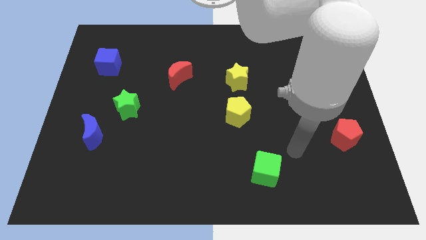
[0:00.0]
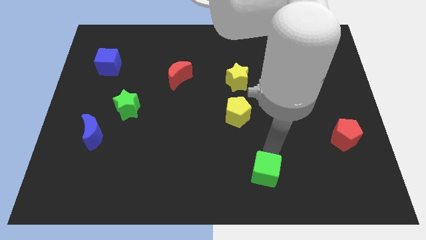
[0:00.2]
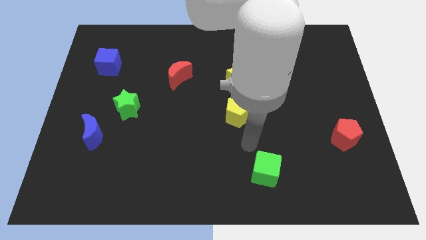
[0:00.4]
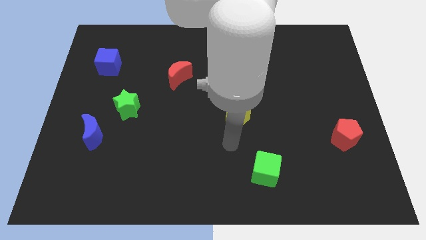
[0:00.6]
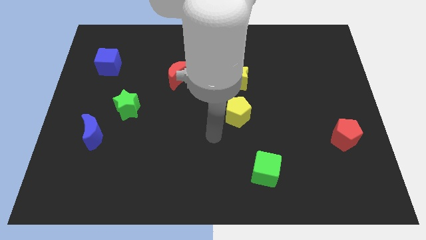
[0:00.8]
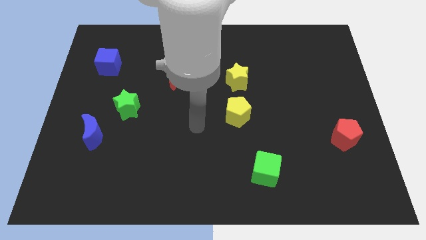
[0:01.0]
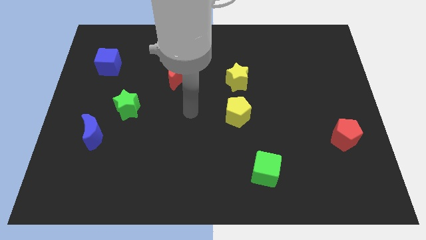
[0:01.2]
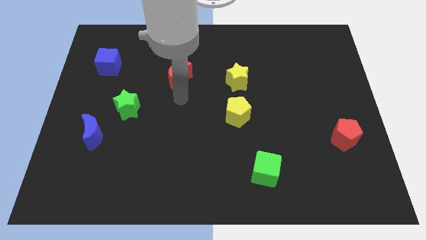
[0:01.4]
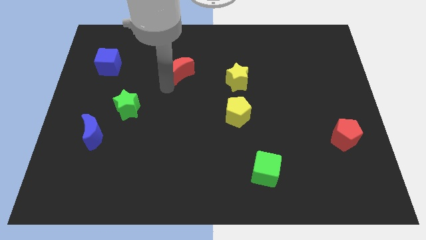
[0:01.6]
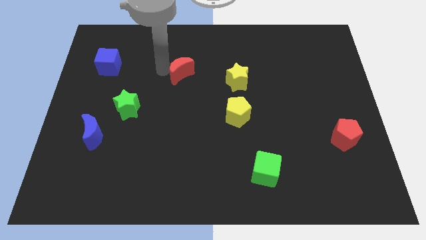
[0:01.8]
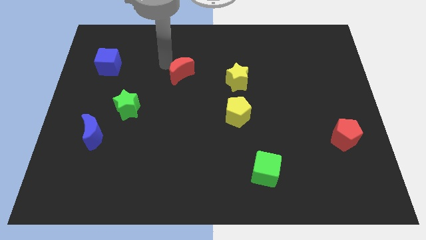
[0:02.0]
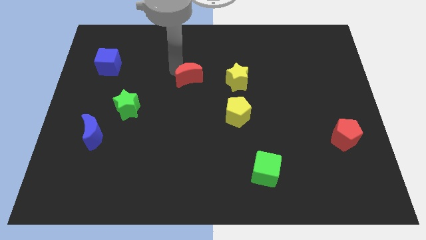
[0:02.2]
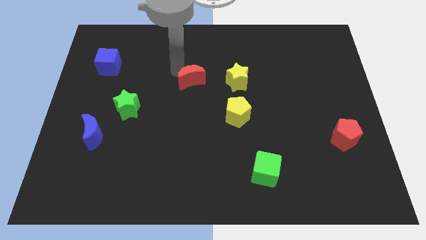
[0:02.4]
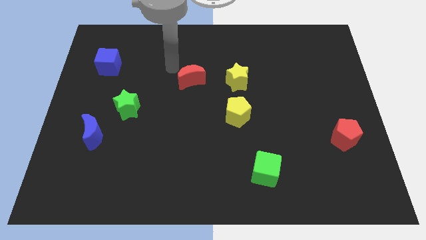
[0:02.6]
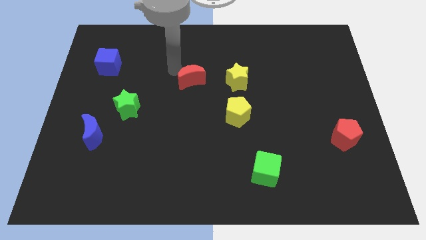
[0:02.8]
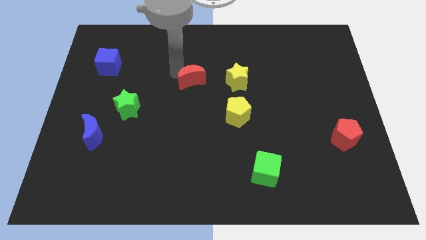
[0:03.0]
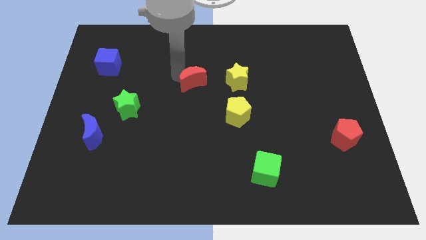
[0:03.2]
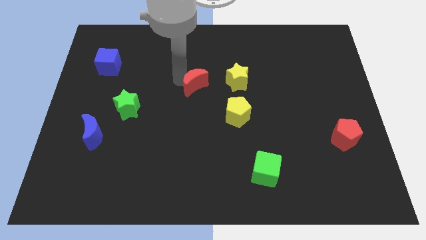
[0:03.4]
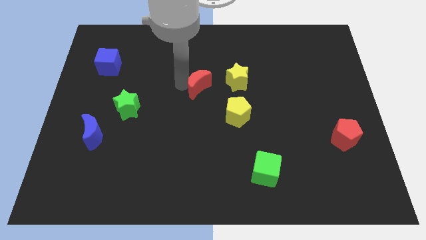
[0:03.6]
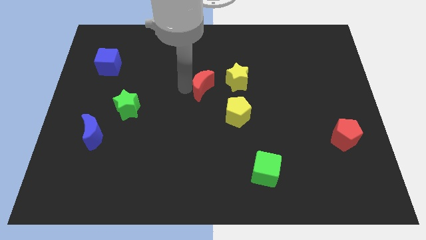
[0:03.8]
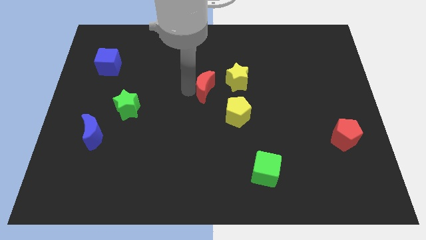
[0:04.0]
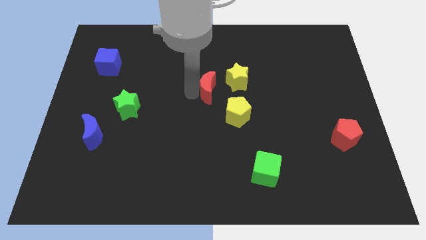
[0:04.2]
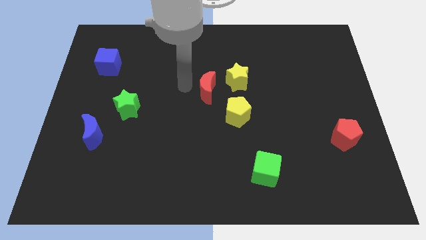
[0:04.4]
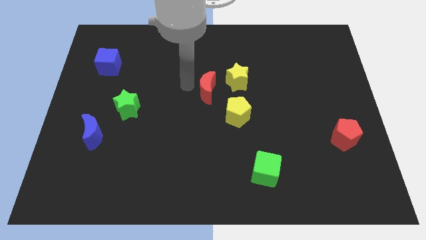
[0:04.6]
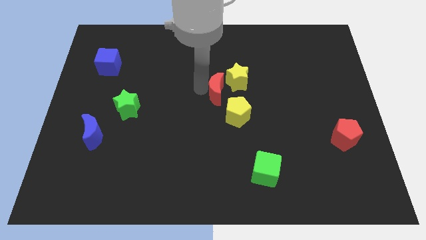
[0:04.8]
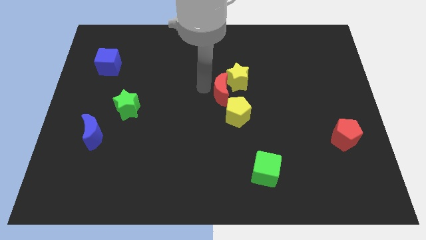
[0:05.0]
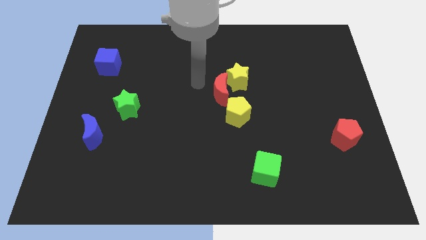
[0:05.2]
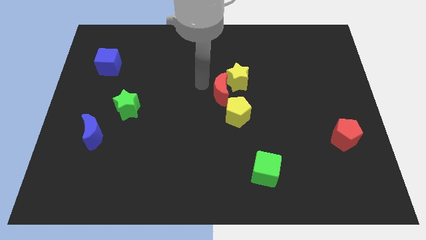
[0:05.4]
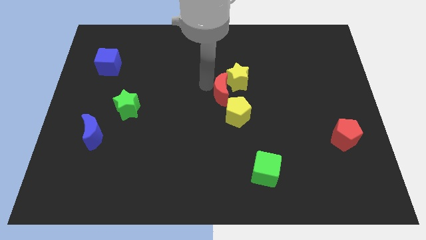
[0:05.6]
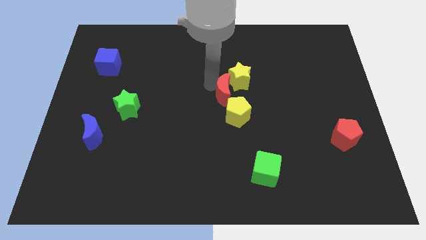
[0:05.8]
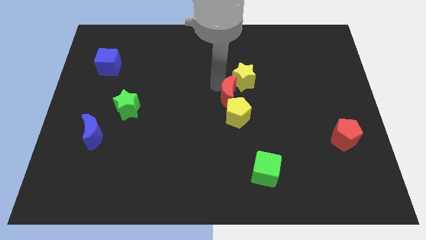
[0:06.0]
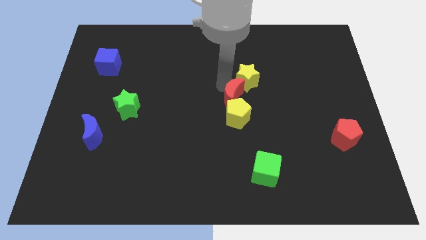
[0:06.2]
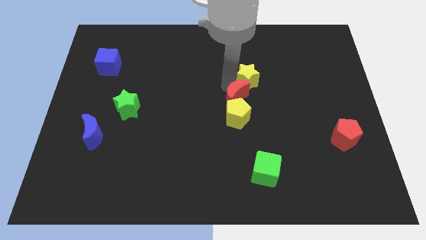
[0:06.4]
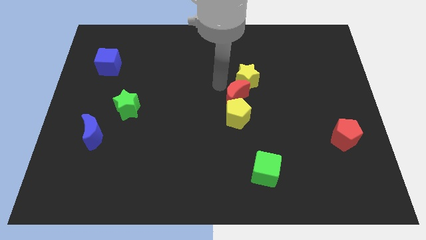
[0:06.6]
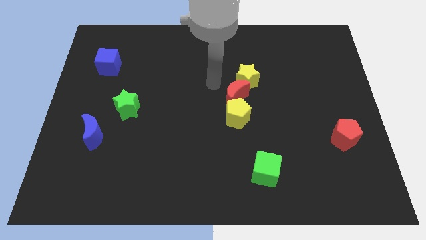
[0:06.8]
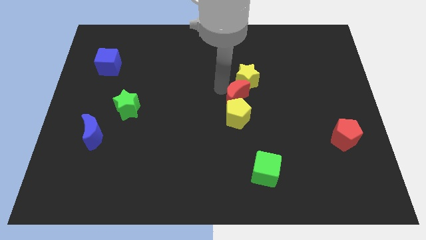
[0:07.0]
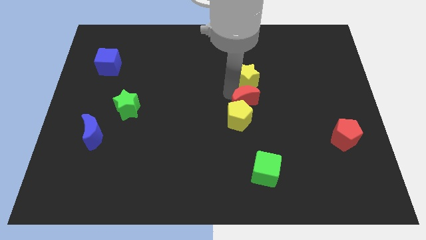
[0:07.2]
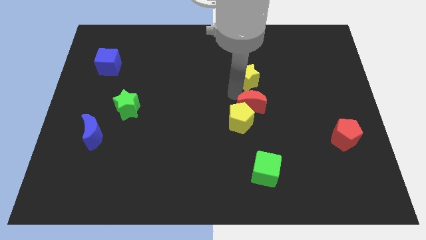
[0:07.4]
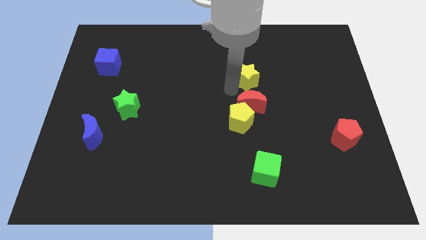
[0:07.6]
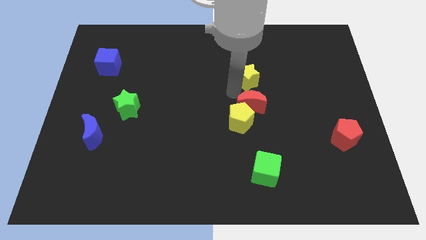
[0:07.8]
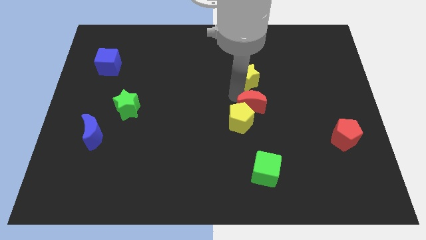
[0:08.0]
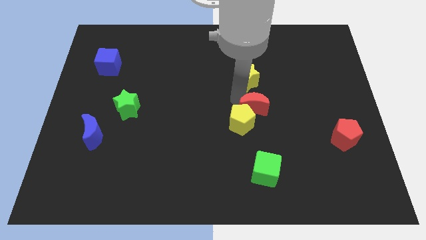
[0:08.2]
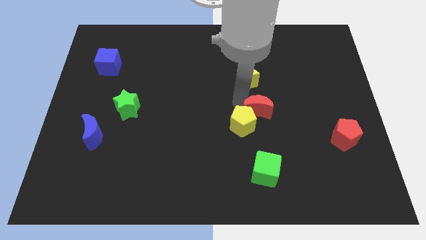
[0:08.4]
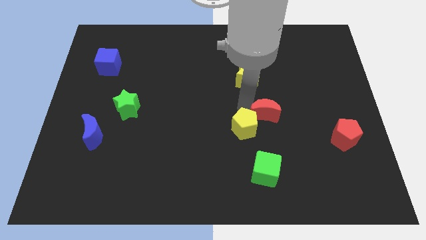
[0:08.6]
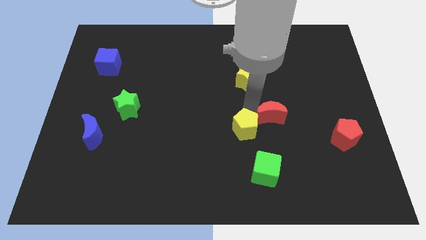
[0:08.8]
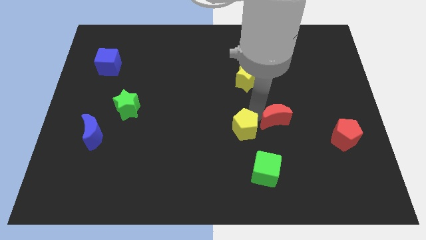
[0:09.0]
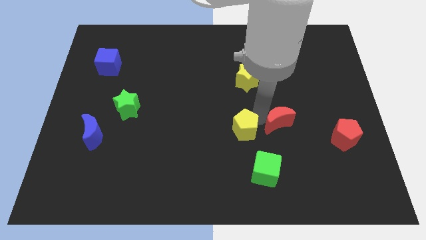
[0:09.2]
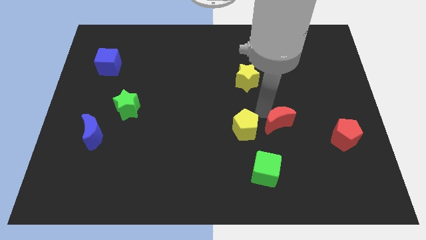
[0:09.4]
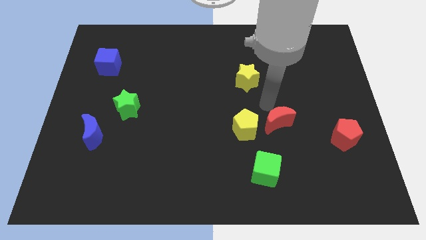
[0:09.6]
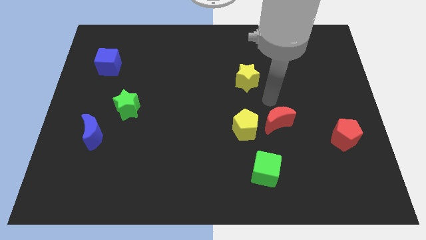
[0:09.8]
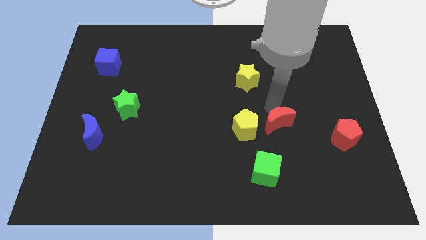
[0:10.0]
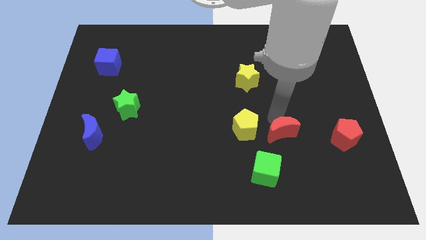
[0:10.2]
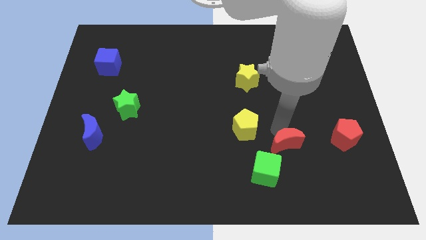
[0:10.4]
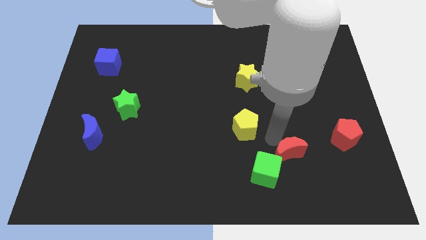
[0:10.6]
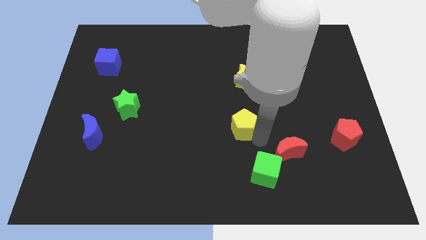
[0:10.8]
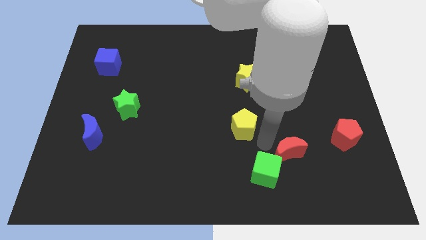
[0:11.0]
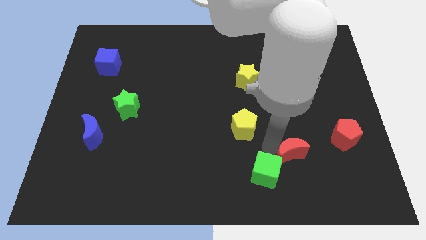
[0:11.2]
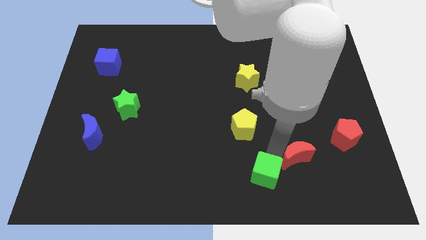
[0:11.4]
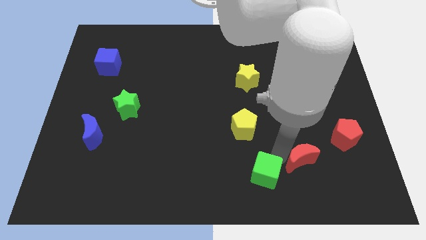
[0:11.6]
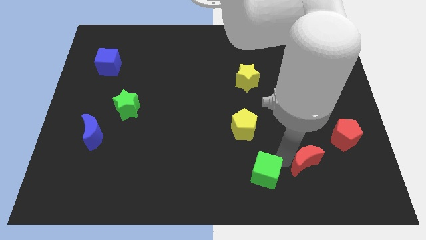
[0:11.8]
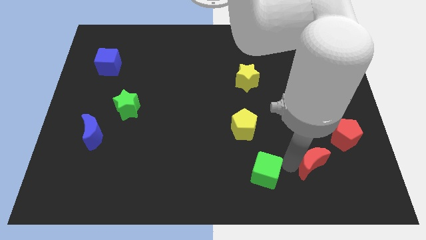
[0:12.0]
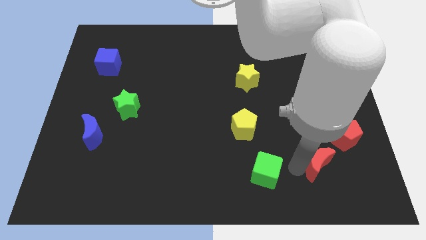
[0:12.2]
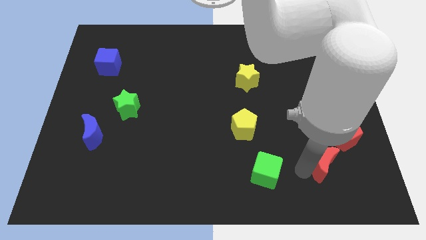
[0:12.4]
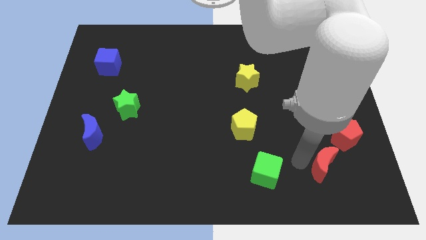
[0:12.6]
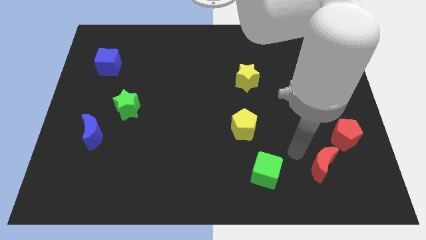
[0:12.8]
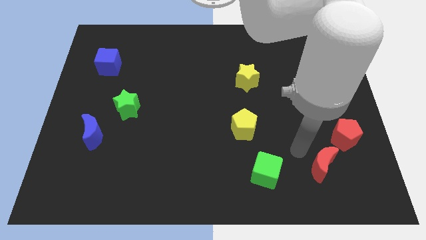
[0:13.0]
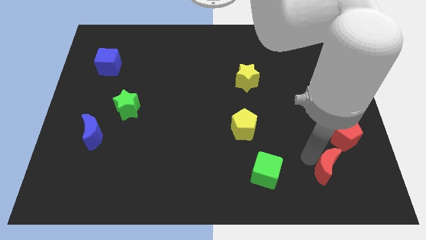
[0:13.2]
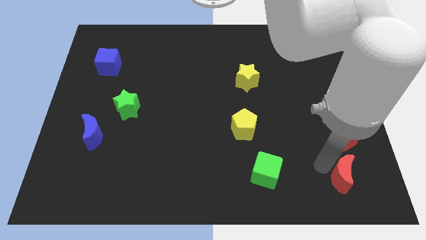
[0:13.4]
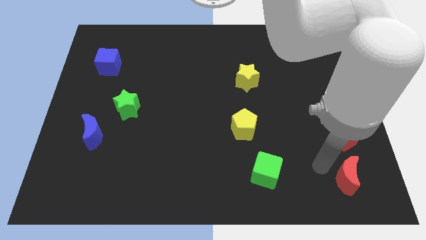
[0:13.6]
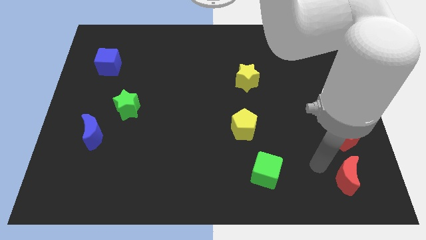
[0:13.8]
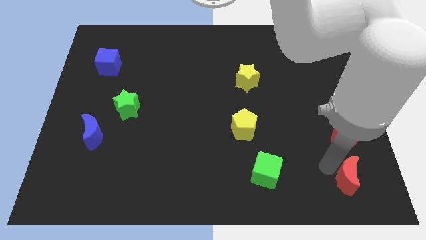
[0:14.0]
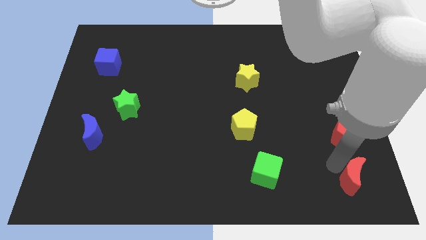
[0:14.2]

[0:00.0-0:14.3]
slide the red moon to the bottom right corner
